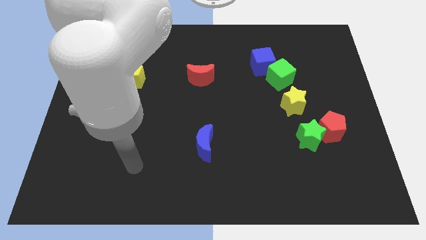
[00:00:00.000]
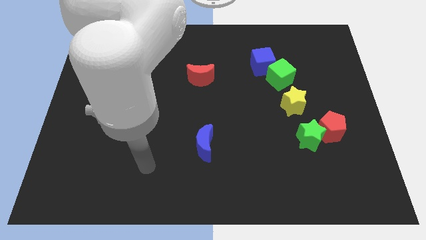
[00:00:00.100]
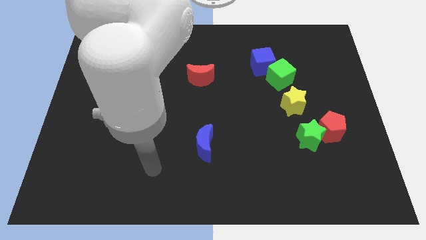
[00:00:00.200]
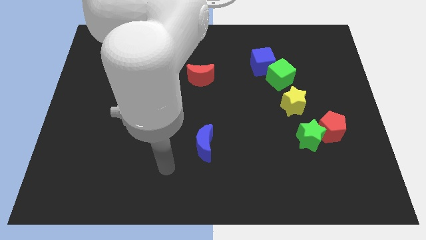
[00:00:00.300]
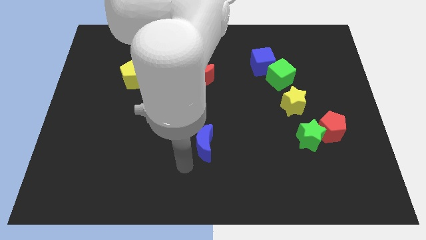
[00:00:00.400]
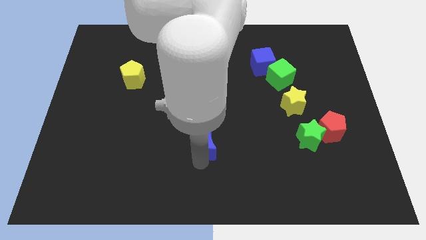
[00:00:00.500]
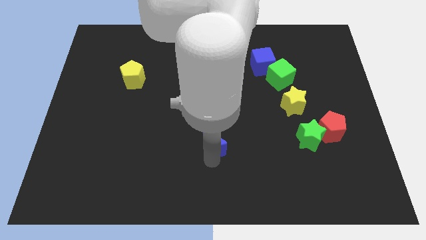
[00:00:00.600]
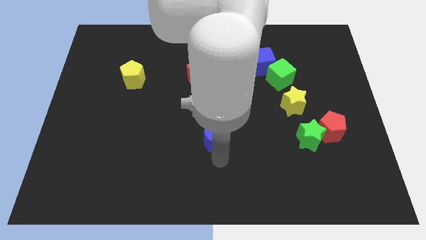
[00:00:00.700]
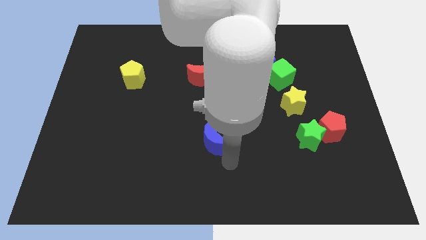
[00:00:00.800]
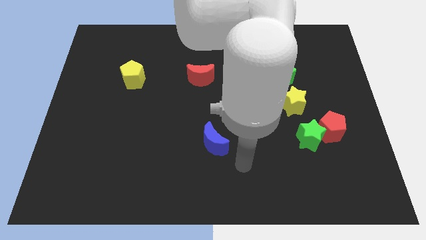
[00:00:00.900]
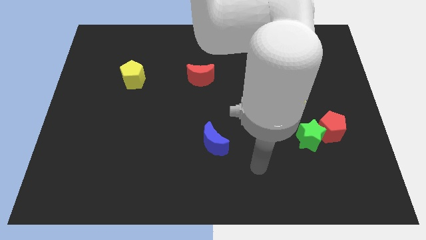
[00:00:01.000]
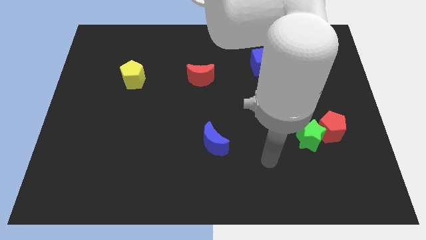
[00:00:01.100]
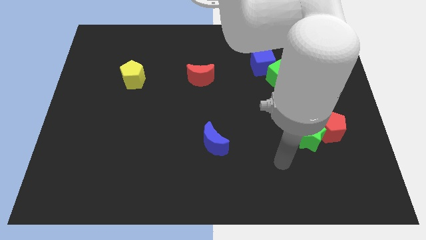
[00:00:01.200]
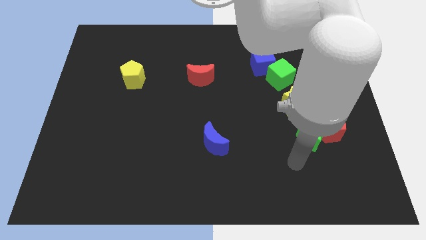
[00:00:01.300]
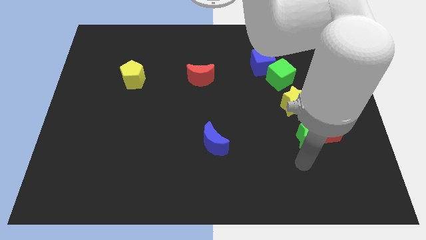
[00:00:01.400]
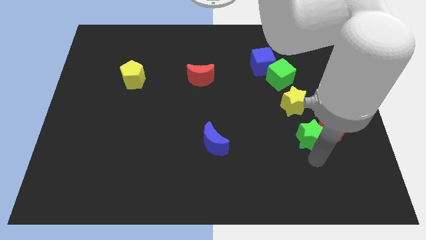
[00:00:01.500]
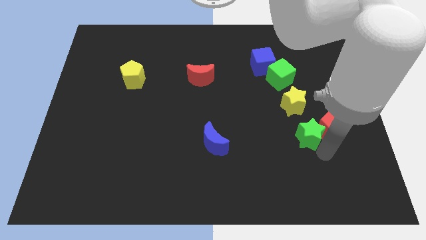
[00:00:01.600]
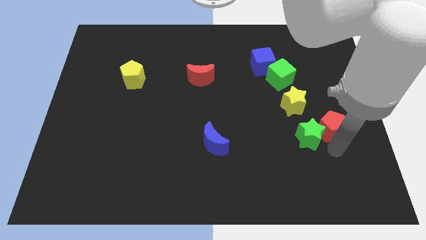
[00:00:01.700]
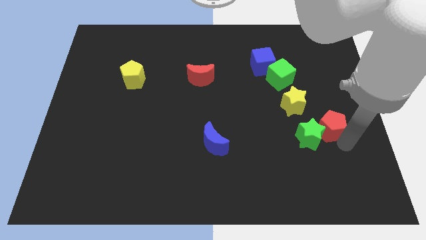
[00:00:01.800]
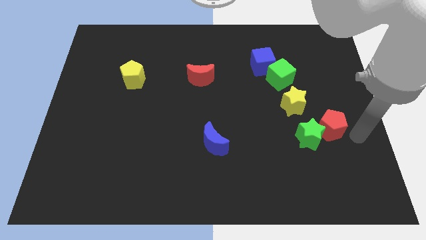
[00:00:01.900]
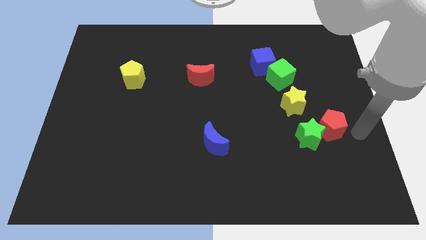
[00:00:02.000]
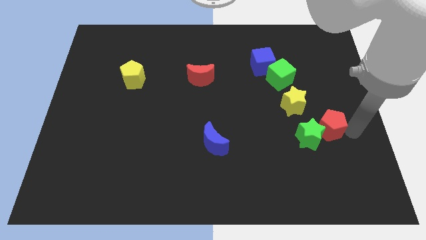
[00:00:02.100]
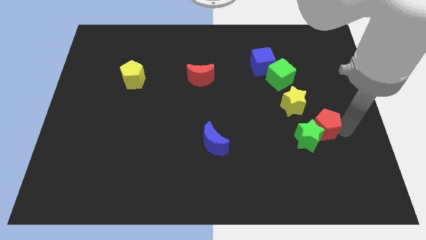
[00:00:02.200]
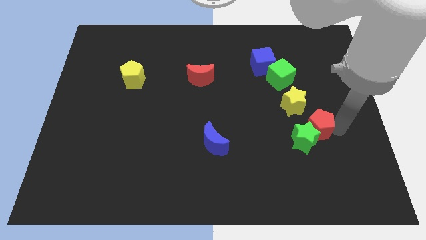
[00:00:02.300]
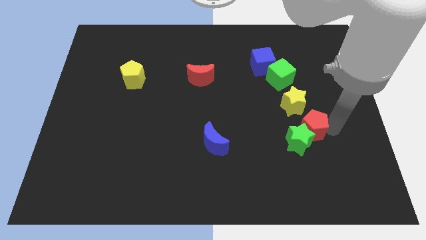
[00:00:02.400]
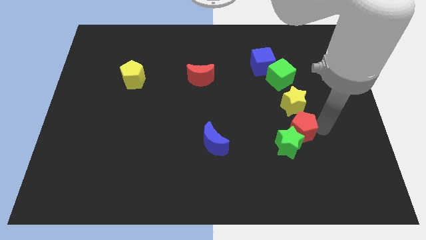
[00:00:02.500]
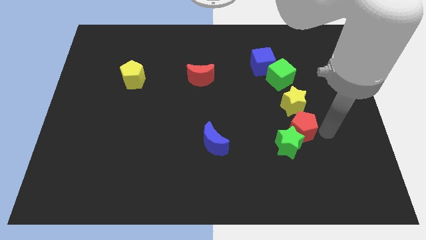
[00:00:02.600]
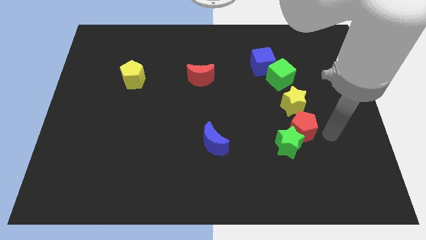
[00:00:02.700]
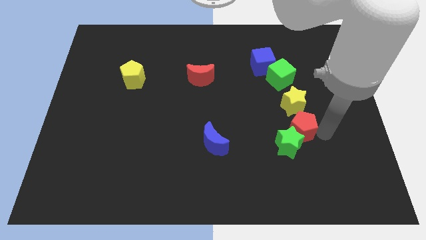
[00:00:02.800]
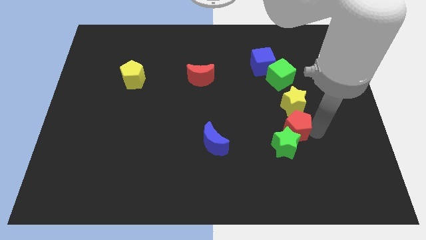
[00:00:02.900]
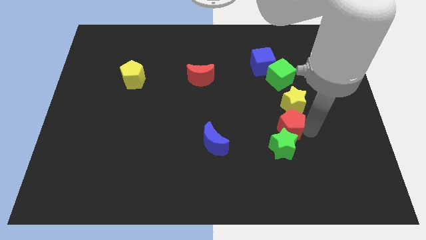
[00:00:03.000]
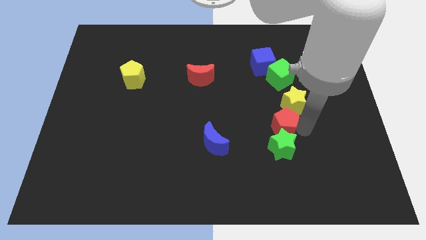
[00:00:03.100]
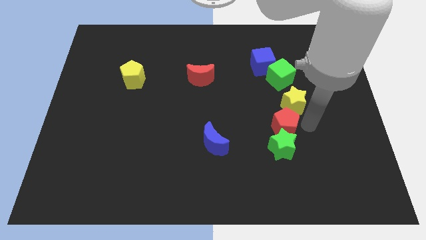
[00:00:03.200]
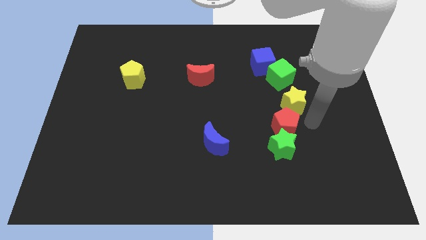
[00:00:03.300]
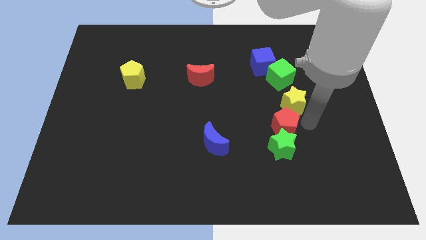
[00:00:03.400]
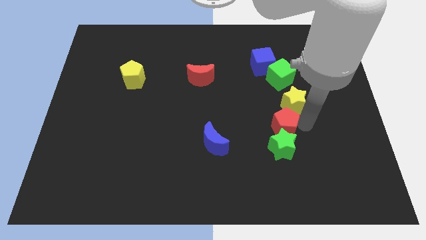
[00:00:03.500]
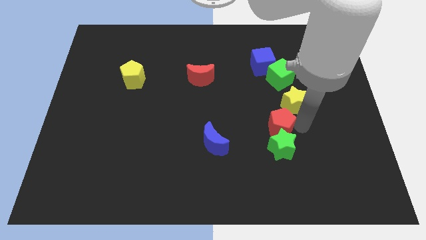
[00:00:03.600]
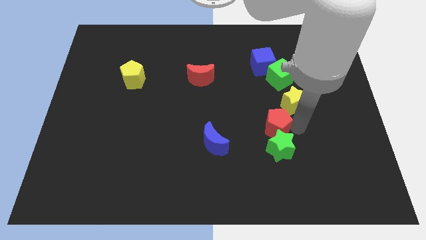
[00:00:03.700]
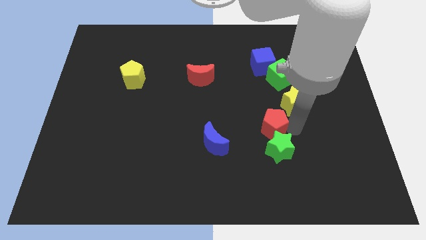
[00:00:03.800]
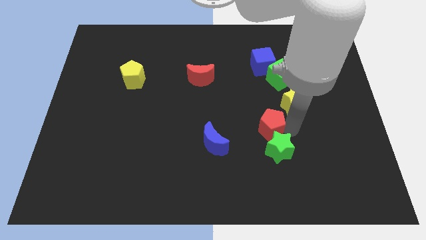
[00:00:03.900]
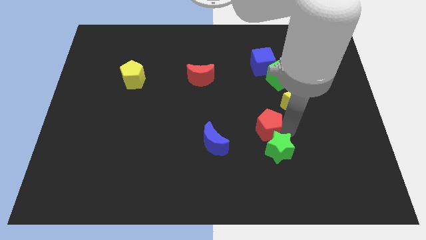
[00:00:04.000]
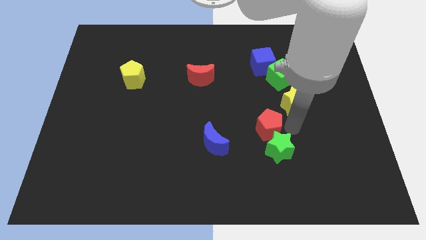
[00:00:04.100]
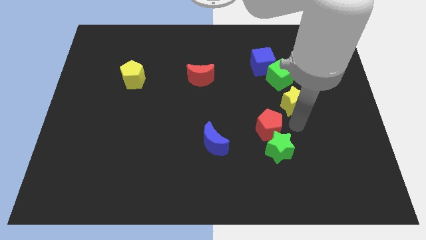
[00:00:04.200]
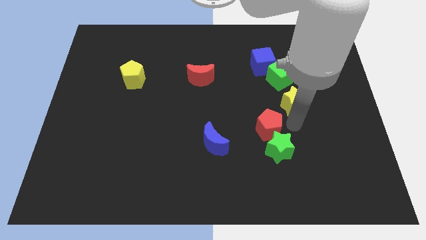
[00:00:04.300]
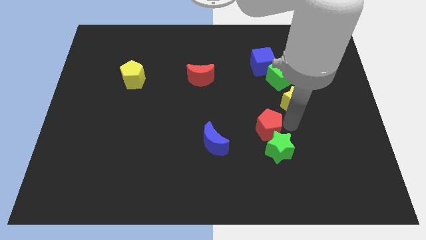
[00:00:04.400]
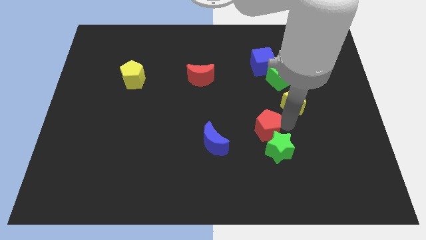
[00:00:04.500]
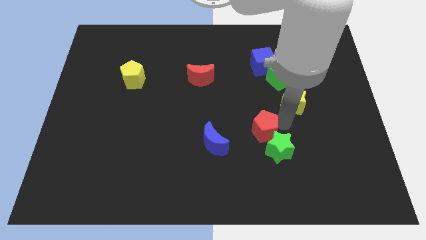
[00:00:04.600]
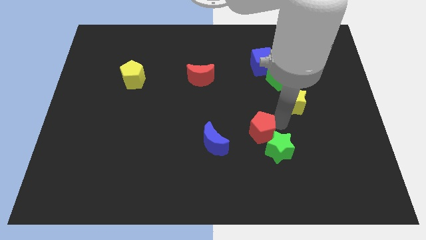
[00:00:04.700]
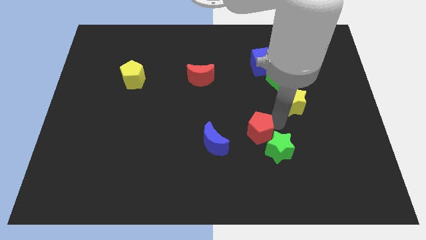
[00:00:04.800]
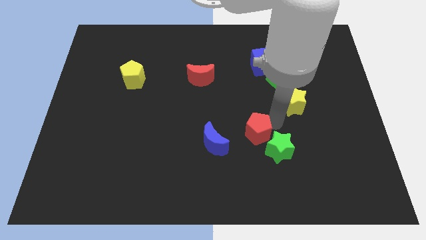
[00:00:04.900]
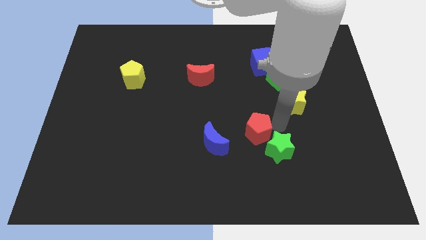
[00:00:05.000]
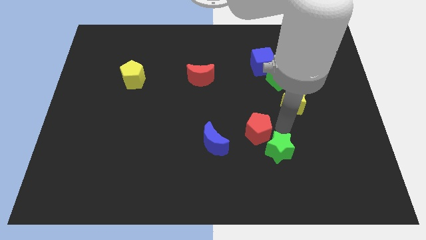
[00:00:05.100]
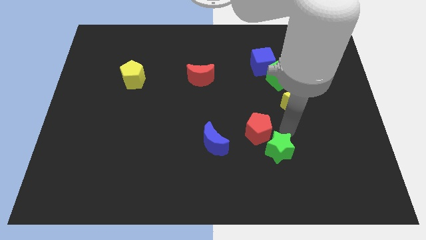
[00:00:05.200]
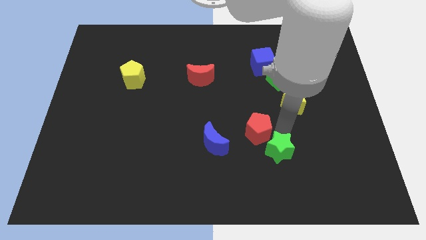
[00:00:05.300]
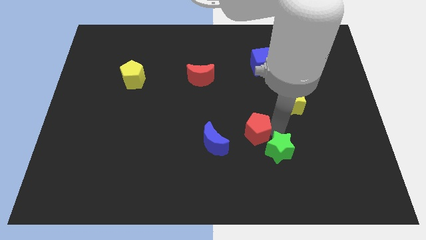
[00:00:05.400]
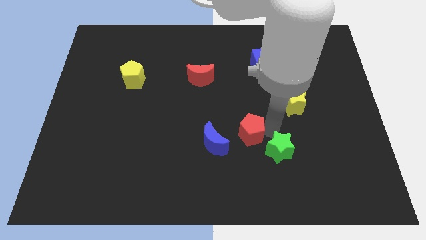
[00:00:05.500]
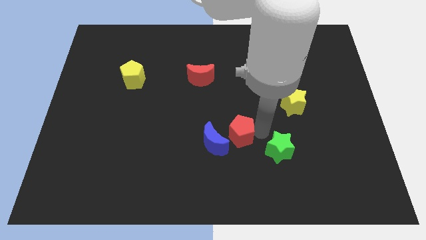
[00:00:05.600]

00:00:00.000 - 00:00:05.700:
slide the red pentagon to the left

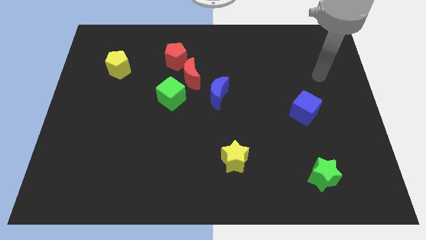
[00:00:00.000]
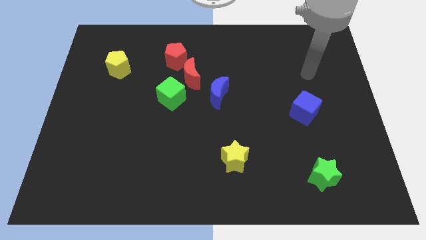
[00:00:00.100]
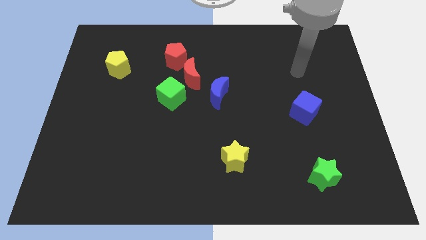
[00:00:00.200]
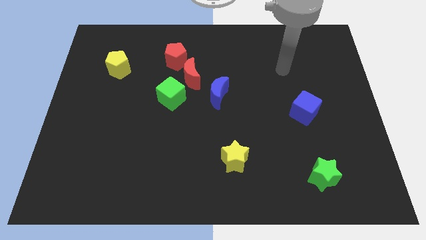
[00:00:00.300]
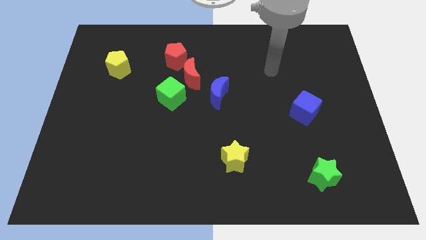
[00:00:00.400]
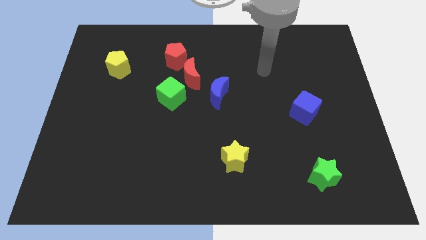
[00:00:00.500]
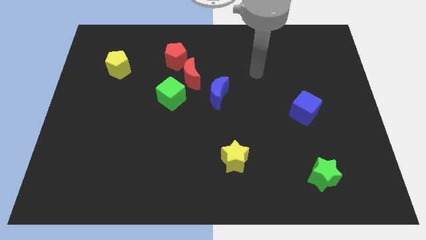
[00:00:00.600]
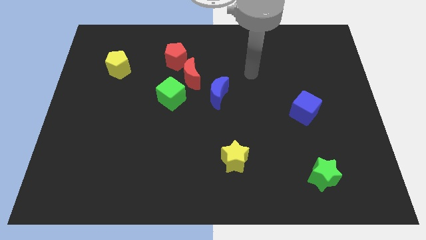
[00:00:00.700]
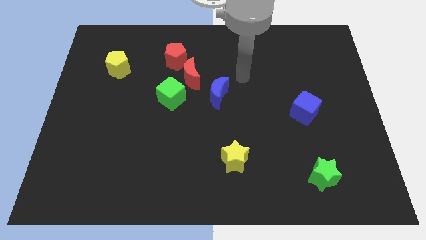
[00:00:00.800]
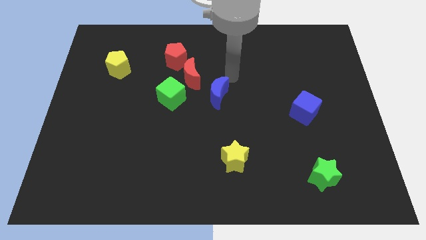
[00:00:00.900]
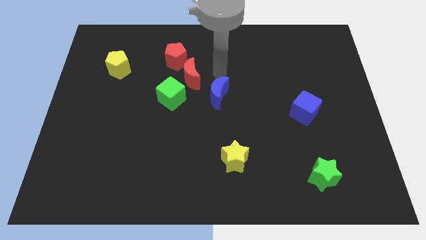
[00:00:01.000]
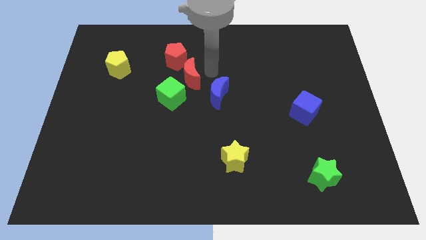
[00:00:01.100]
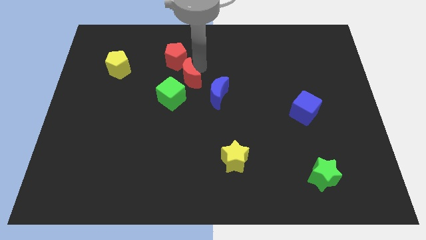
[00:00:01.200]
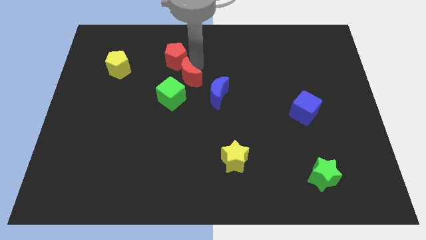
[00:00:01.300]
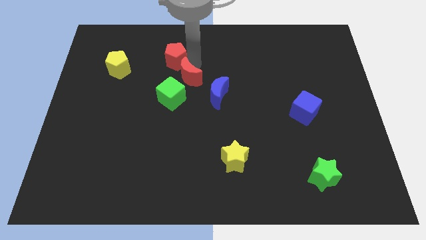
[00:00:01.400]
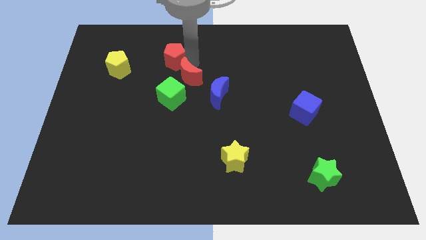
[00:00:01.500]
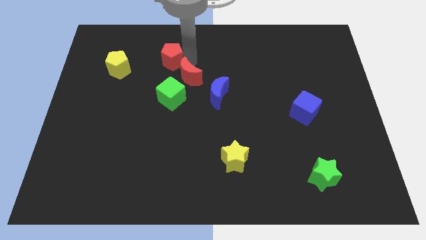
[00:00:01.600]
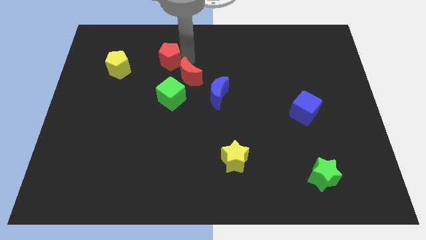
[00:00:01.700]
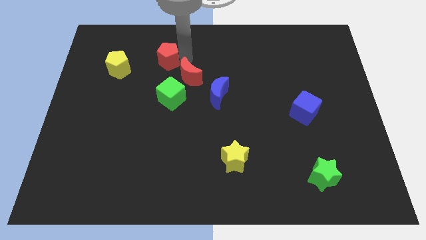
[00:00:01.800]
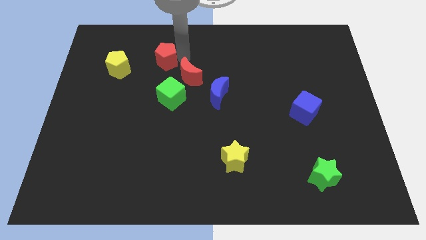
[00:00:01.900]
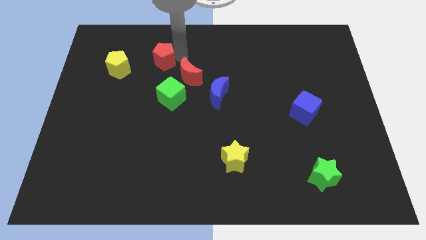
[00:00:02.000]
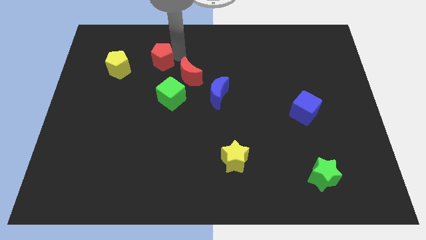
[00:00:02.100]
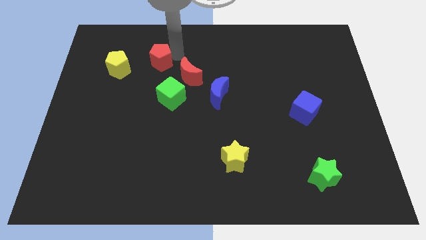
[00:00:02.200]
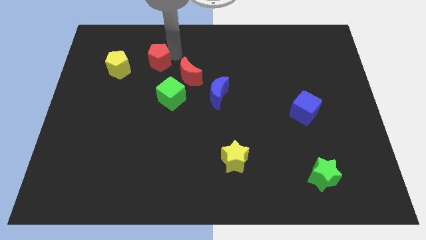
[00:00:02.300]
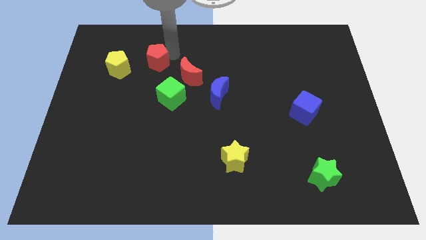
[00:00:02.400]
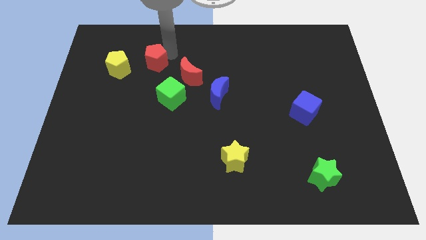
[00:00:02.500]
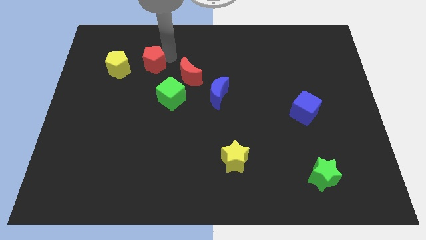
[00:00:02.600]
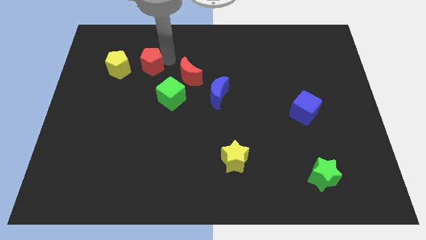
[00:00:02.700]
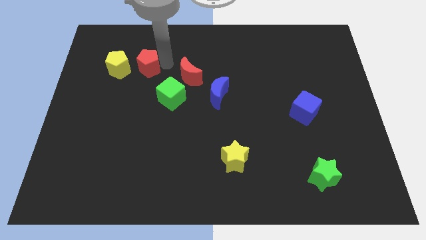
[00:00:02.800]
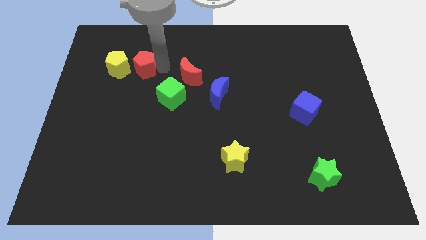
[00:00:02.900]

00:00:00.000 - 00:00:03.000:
slightly slide the red pentagon to the left
